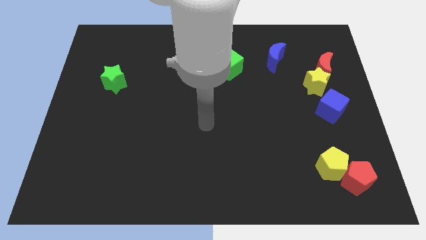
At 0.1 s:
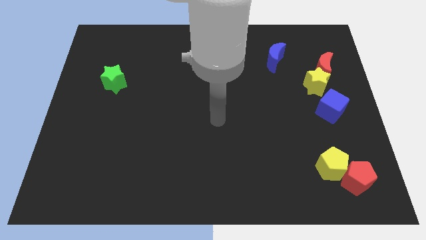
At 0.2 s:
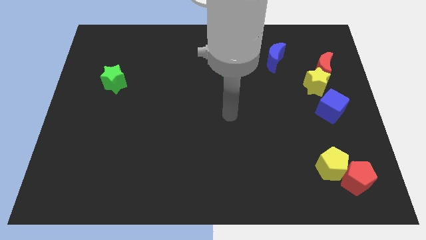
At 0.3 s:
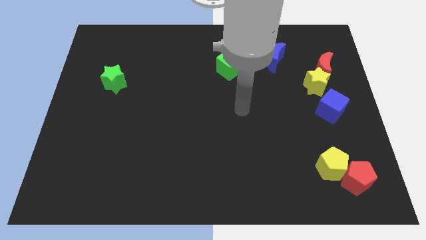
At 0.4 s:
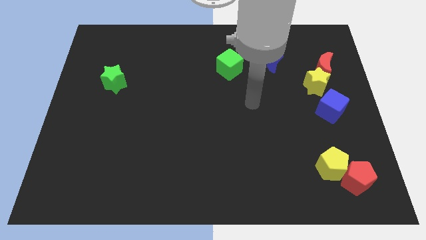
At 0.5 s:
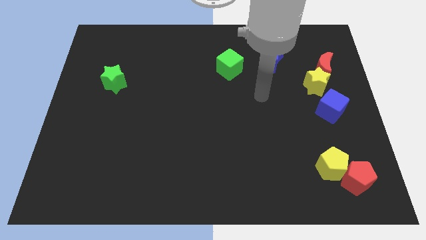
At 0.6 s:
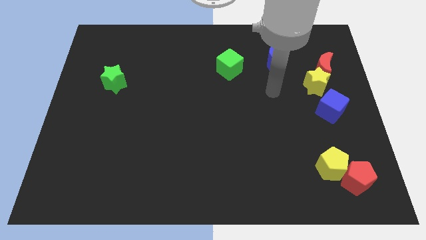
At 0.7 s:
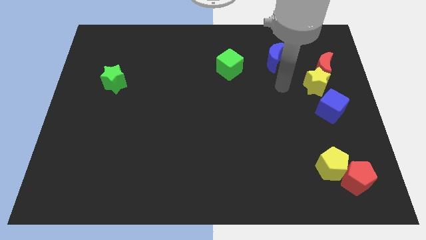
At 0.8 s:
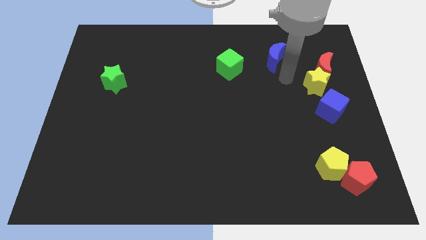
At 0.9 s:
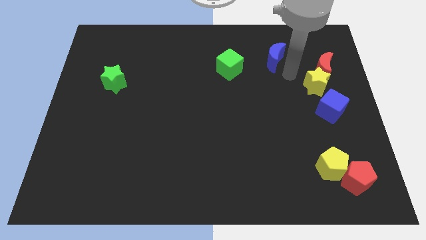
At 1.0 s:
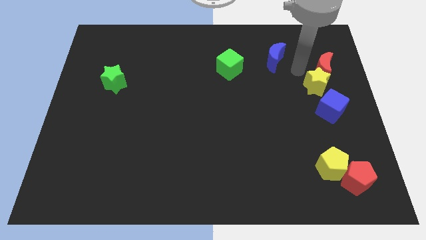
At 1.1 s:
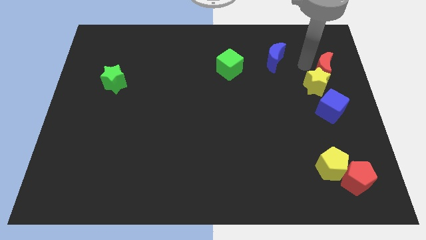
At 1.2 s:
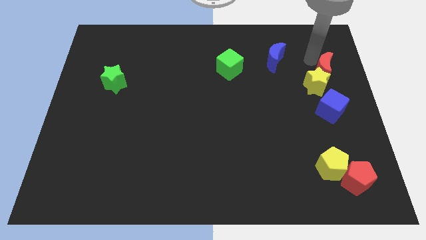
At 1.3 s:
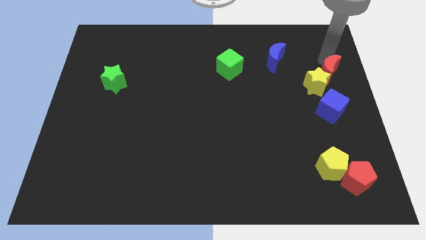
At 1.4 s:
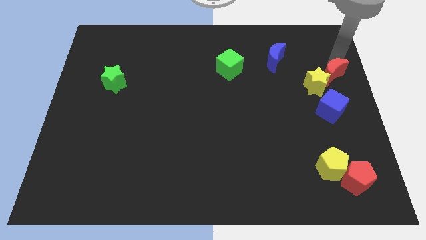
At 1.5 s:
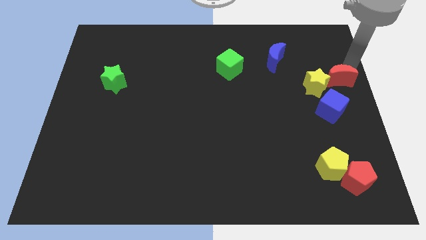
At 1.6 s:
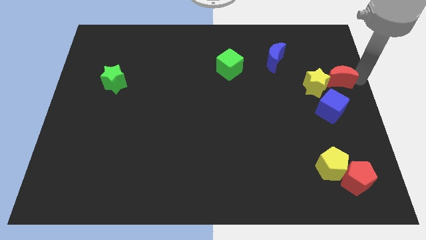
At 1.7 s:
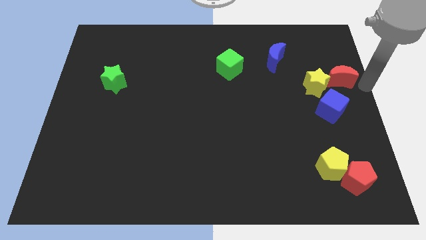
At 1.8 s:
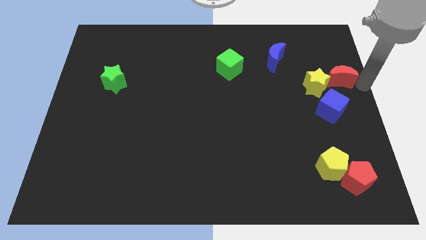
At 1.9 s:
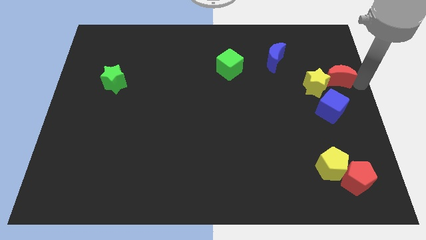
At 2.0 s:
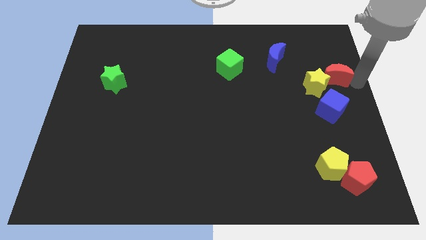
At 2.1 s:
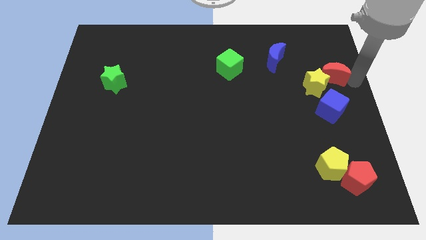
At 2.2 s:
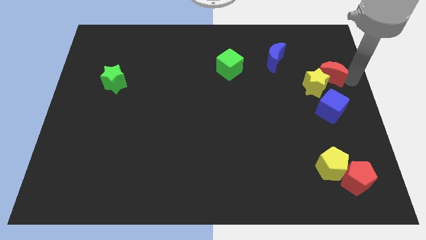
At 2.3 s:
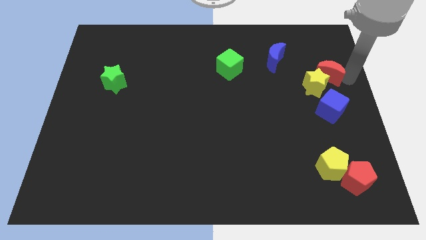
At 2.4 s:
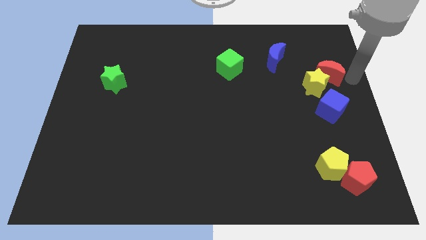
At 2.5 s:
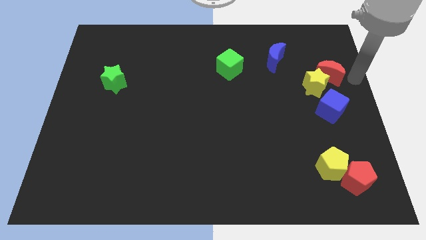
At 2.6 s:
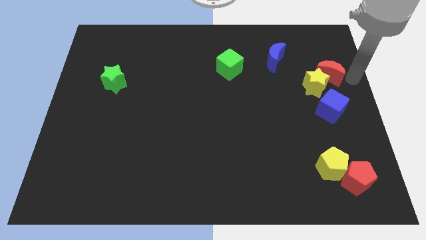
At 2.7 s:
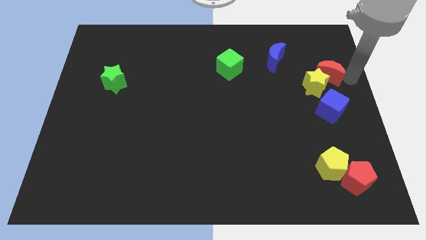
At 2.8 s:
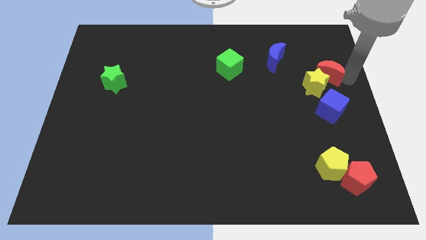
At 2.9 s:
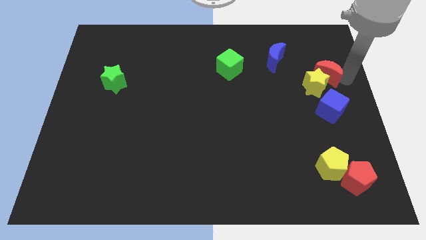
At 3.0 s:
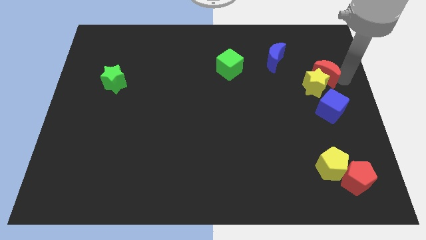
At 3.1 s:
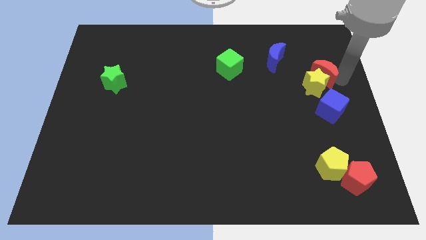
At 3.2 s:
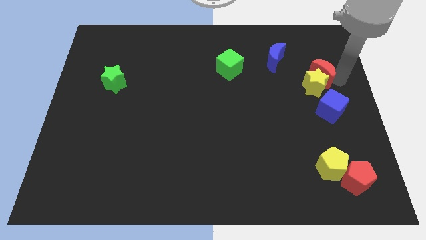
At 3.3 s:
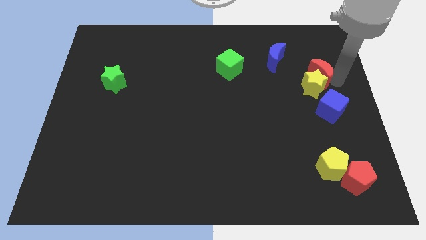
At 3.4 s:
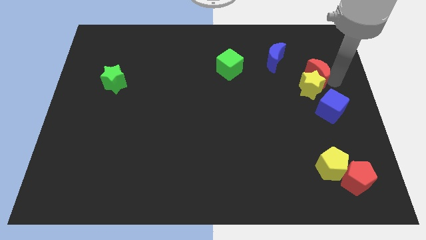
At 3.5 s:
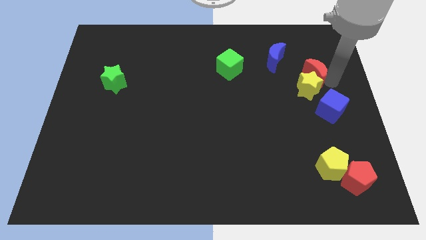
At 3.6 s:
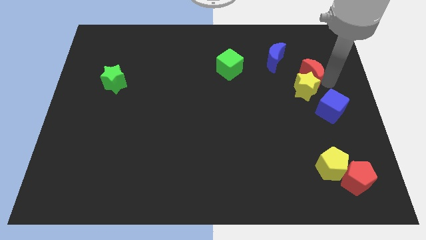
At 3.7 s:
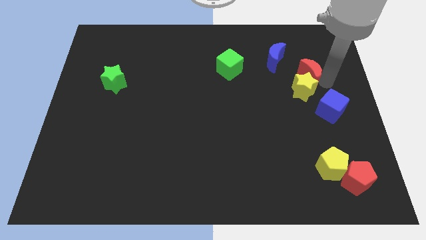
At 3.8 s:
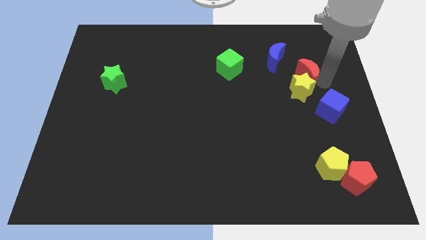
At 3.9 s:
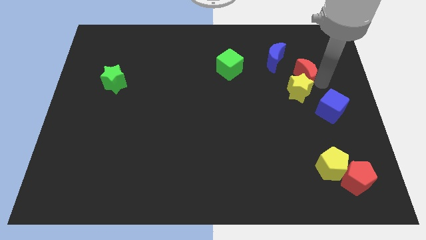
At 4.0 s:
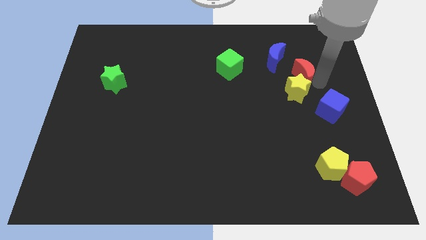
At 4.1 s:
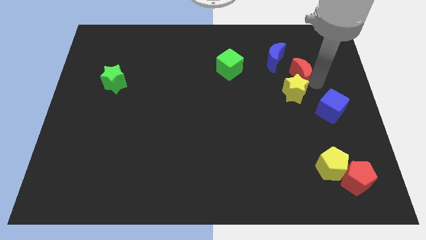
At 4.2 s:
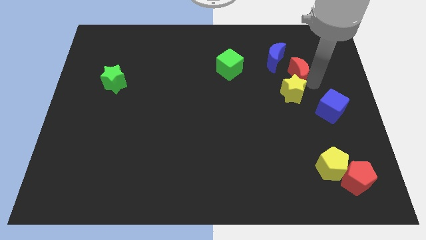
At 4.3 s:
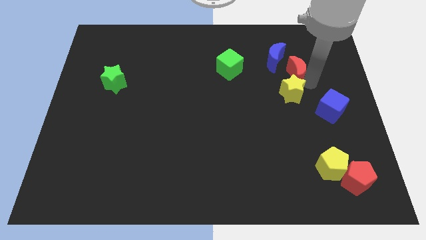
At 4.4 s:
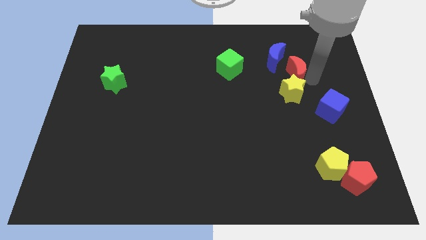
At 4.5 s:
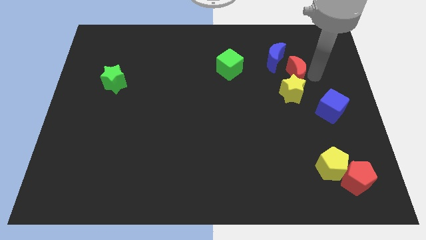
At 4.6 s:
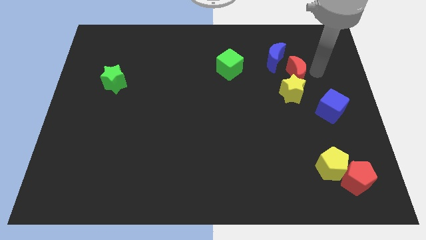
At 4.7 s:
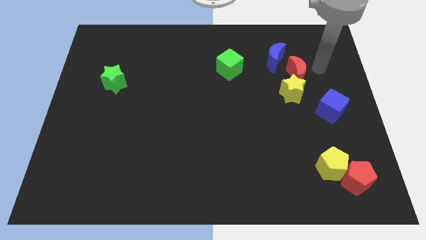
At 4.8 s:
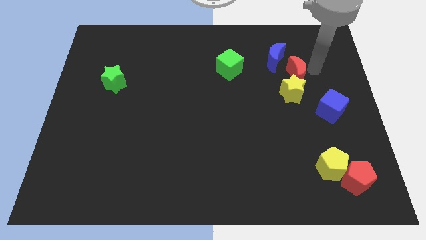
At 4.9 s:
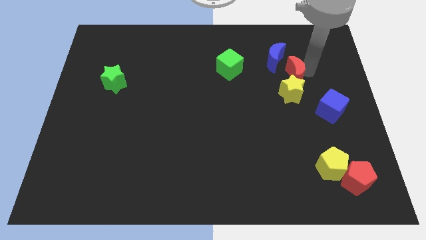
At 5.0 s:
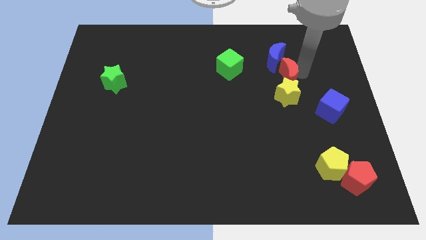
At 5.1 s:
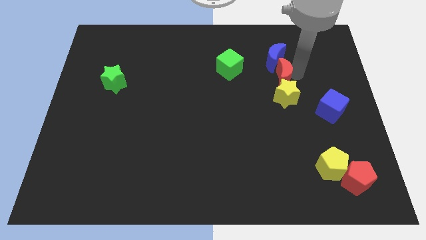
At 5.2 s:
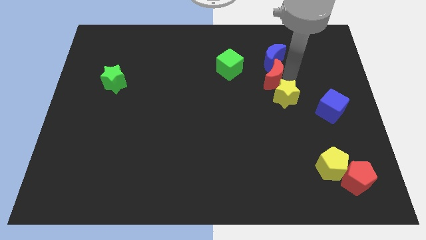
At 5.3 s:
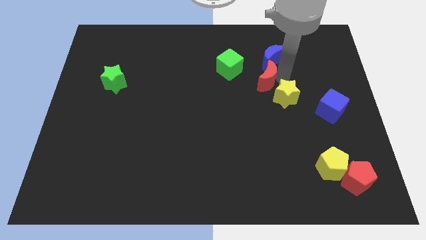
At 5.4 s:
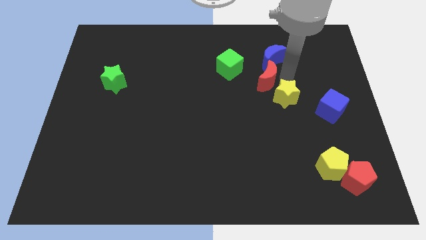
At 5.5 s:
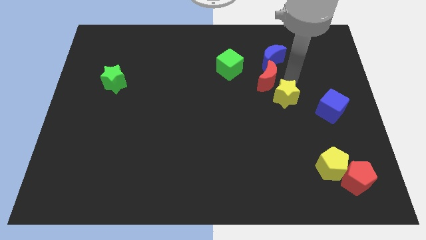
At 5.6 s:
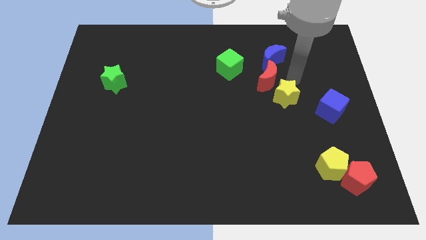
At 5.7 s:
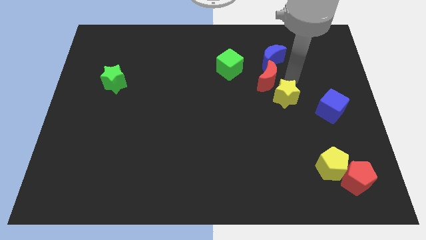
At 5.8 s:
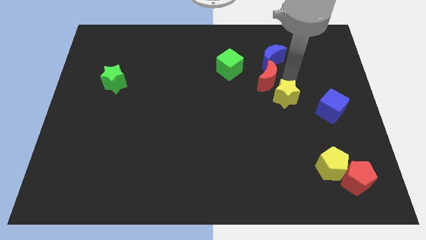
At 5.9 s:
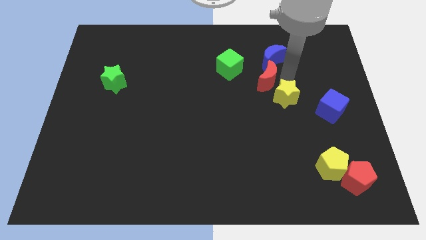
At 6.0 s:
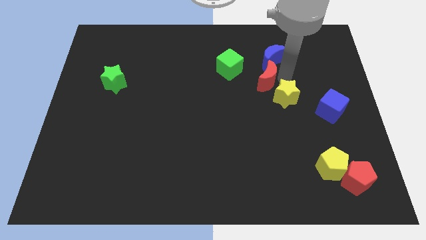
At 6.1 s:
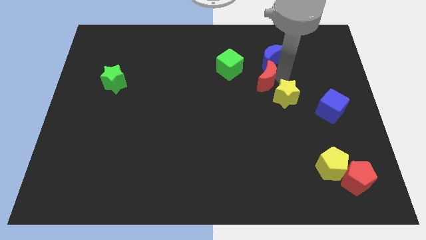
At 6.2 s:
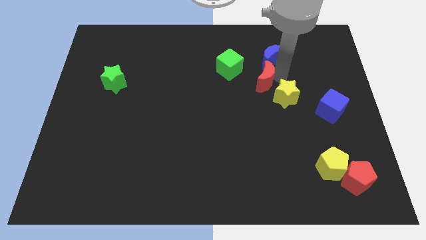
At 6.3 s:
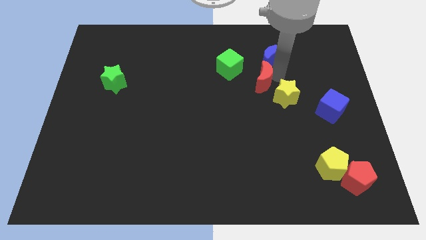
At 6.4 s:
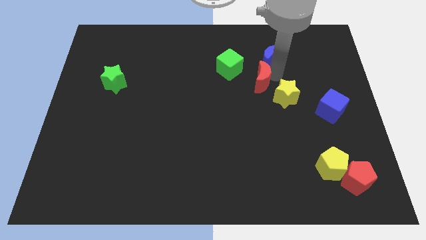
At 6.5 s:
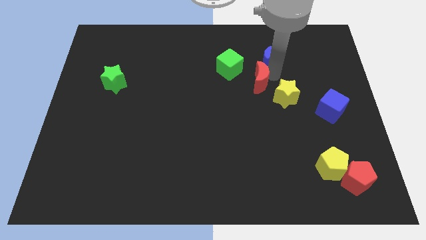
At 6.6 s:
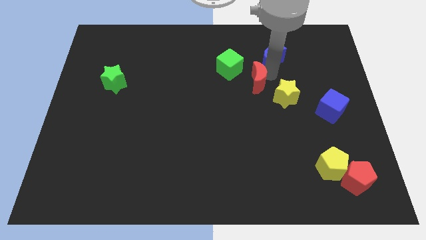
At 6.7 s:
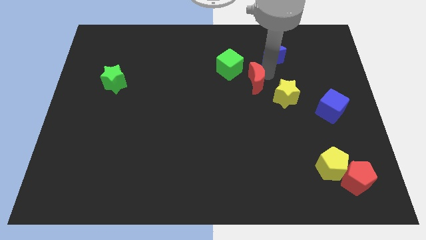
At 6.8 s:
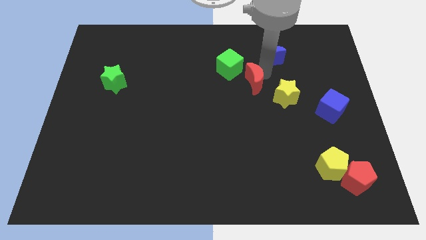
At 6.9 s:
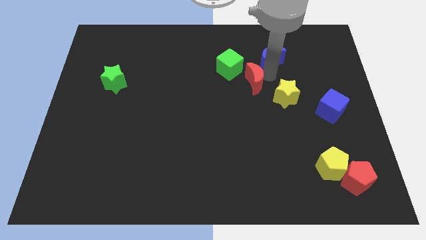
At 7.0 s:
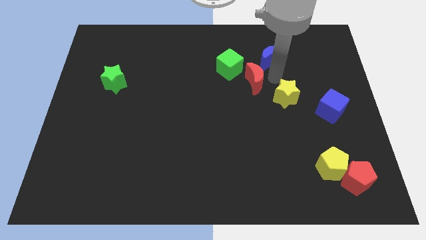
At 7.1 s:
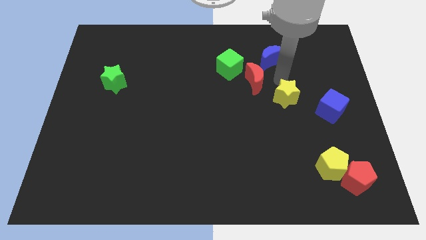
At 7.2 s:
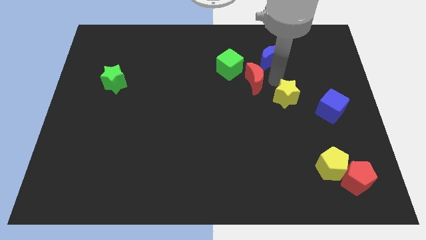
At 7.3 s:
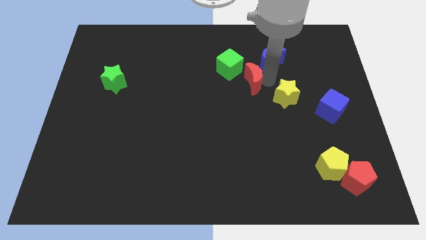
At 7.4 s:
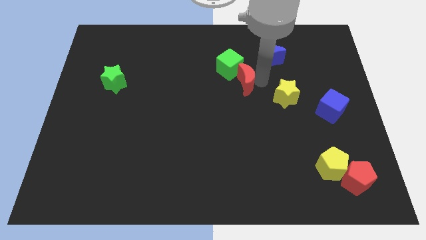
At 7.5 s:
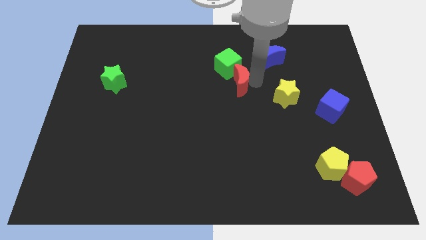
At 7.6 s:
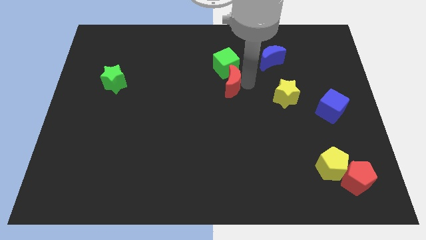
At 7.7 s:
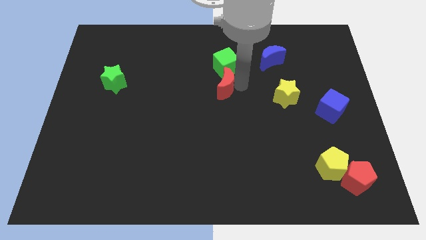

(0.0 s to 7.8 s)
push the red moon diagonally down and to the left of the green cube
